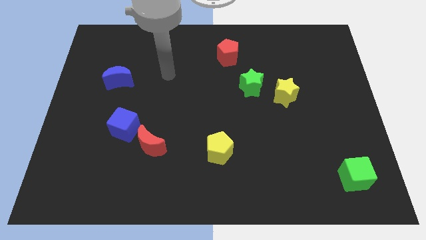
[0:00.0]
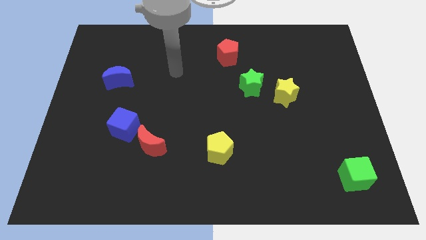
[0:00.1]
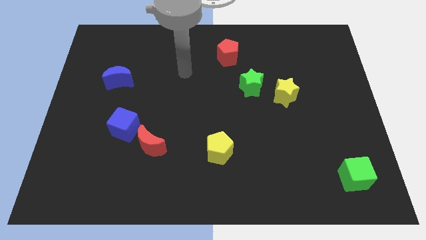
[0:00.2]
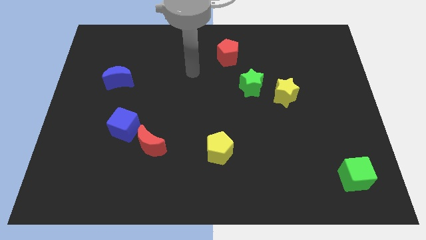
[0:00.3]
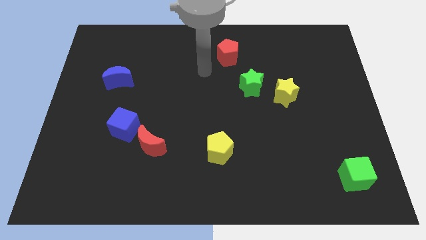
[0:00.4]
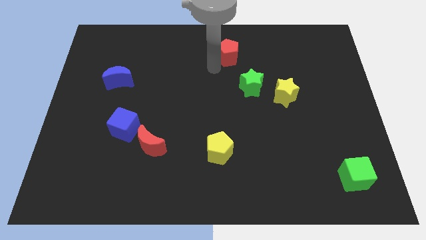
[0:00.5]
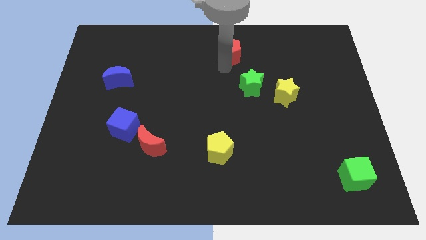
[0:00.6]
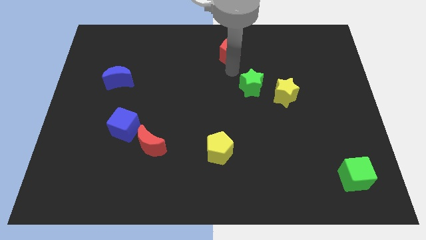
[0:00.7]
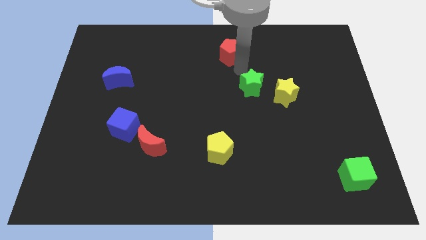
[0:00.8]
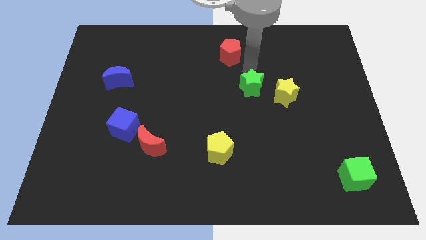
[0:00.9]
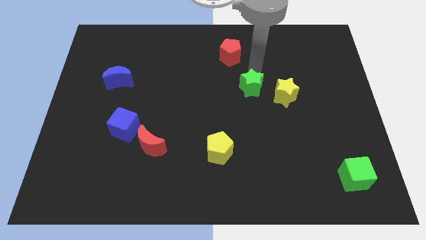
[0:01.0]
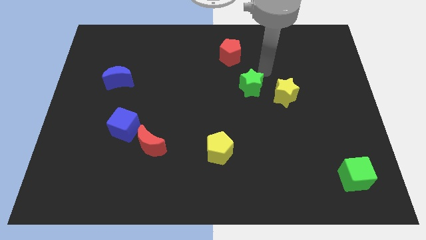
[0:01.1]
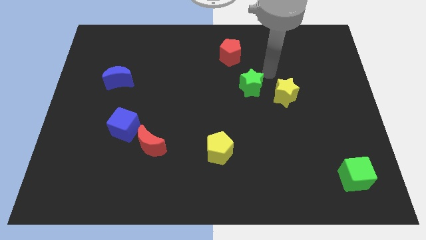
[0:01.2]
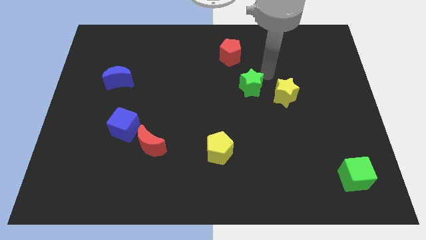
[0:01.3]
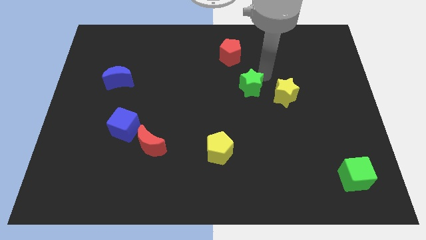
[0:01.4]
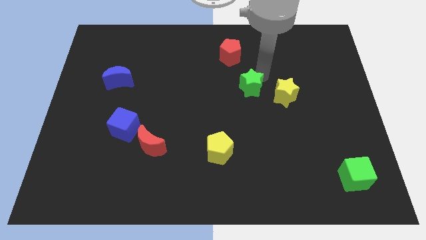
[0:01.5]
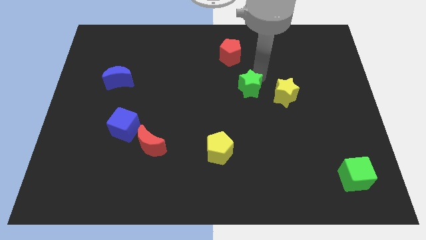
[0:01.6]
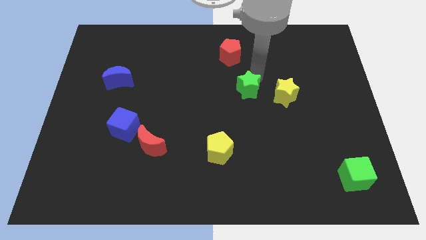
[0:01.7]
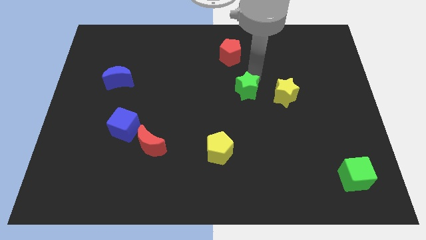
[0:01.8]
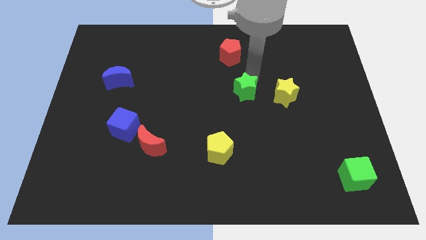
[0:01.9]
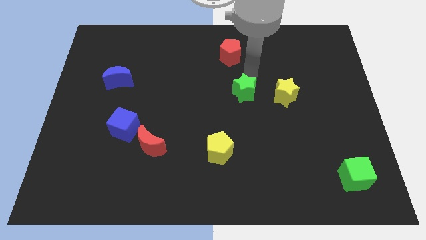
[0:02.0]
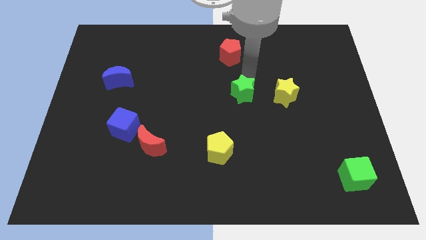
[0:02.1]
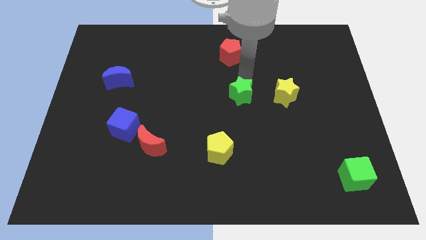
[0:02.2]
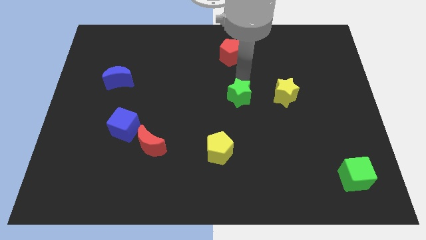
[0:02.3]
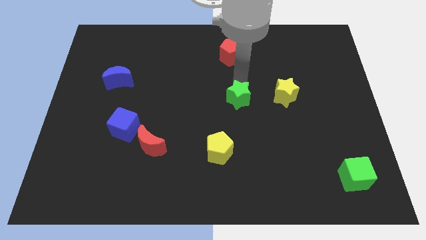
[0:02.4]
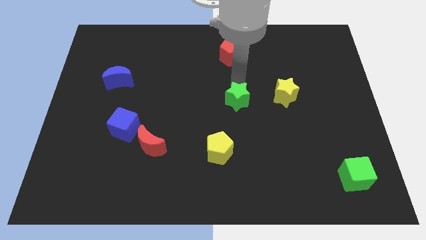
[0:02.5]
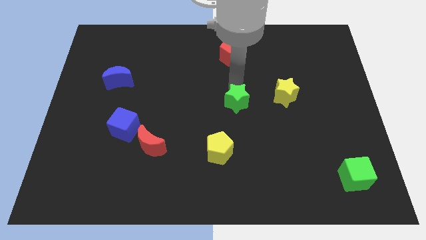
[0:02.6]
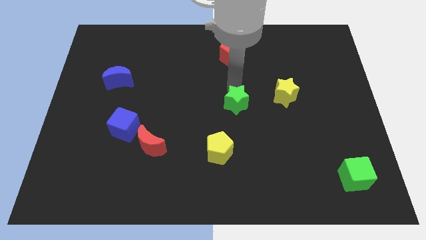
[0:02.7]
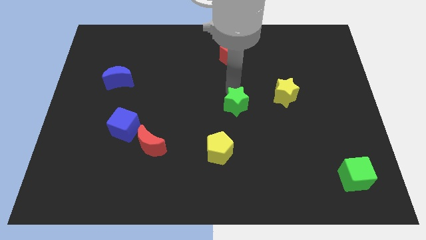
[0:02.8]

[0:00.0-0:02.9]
slide the green star diagonally downwards and left a little

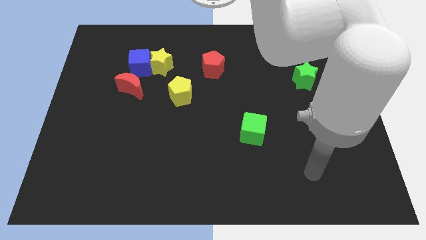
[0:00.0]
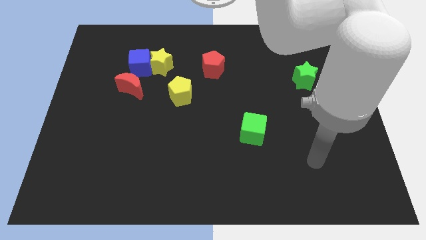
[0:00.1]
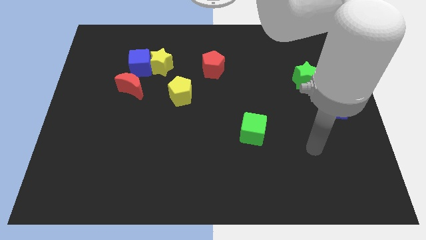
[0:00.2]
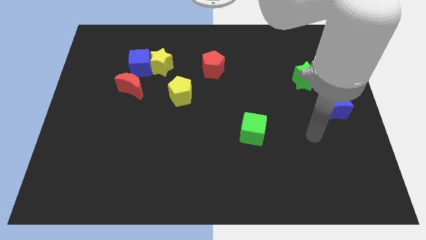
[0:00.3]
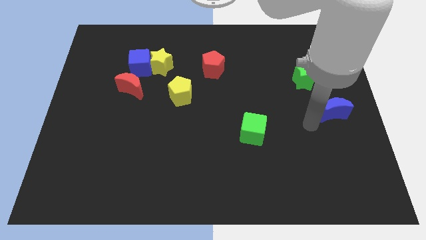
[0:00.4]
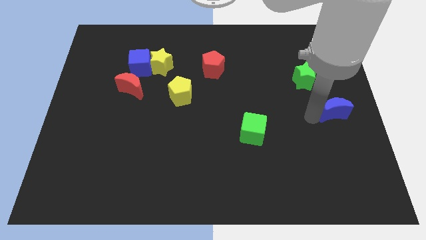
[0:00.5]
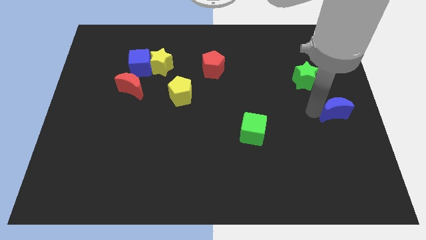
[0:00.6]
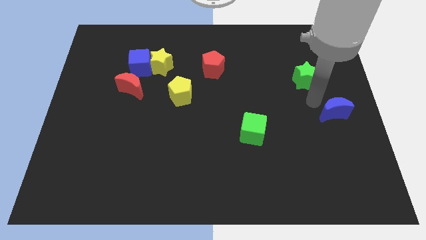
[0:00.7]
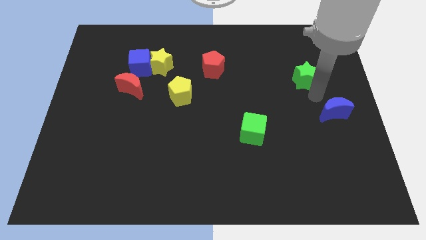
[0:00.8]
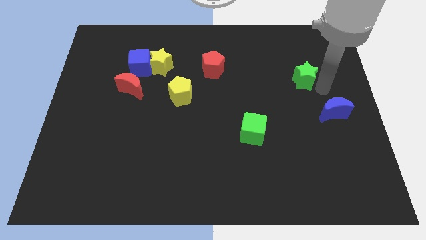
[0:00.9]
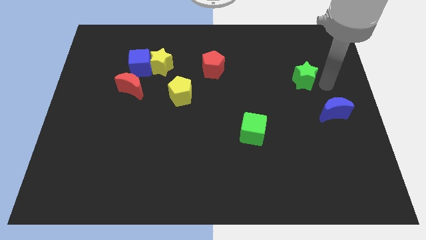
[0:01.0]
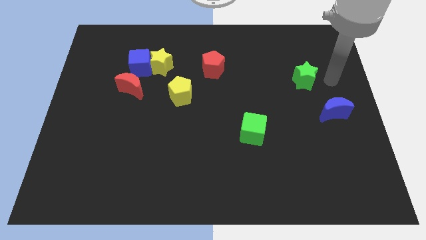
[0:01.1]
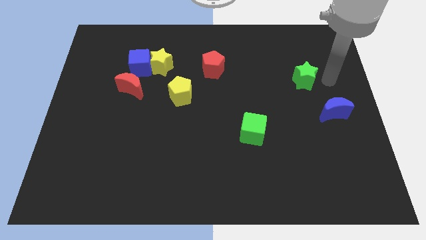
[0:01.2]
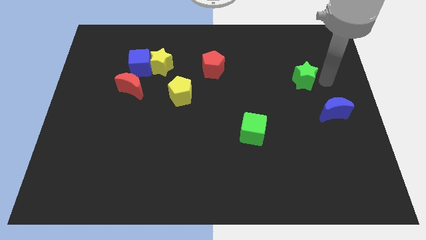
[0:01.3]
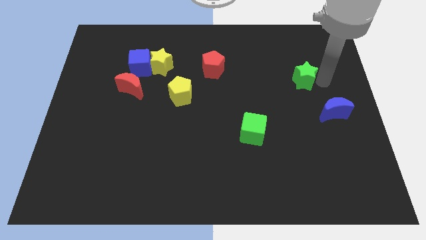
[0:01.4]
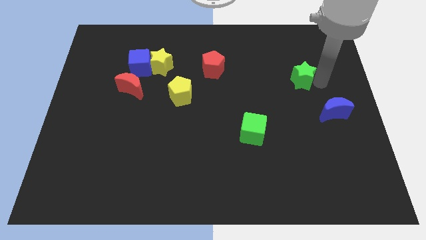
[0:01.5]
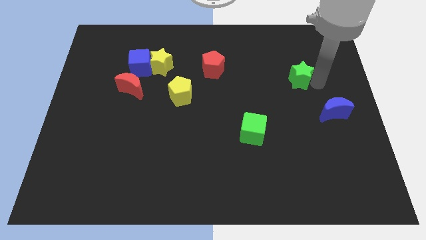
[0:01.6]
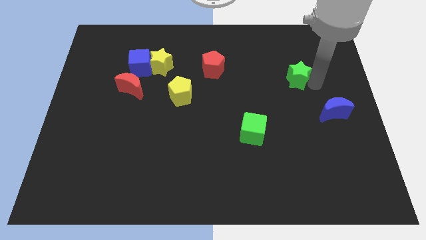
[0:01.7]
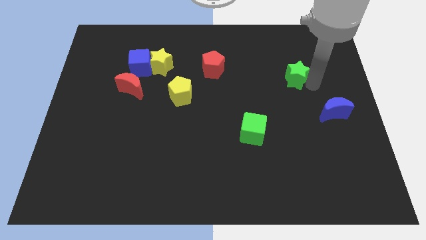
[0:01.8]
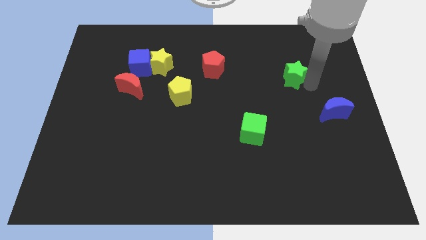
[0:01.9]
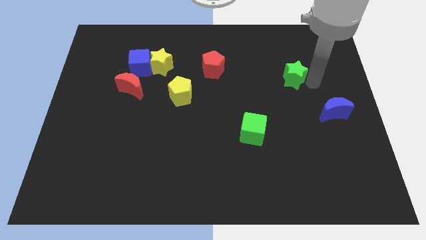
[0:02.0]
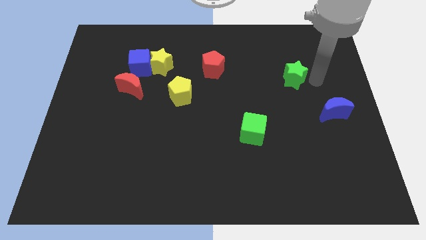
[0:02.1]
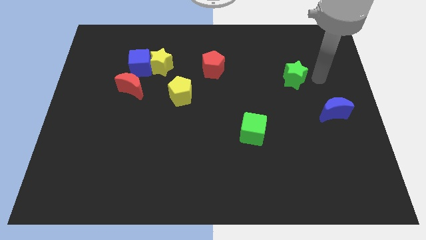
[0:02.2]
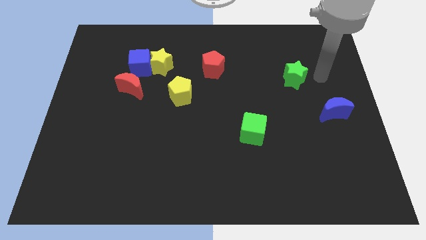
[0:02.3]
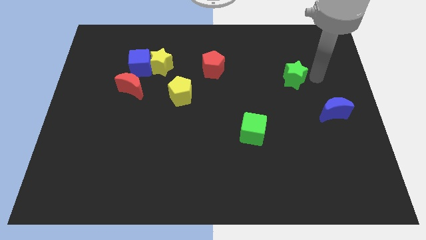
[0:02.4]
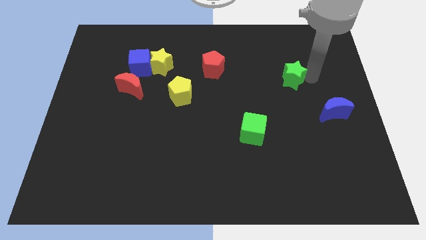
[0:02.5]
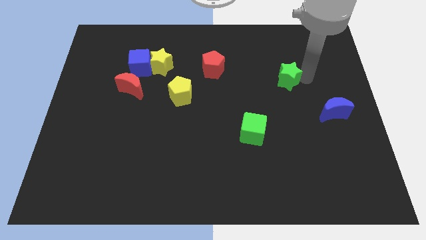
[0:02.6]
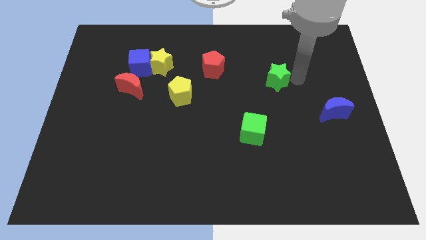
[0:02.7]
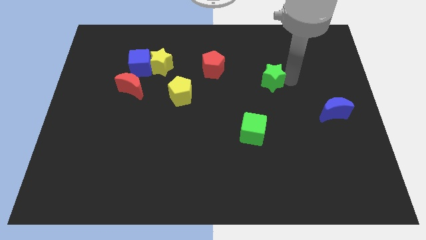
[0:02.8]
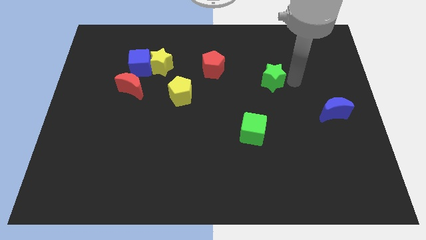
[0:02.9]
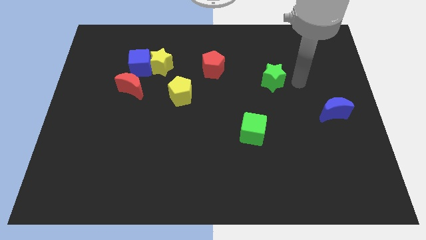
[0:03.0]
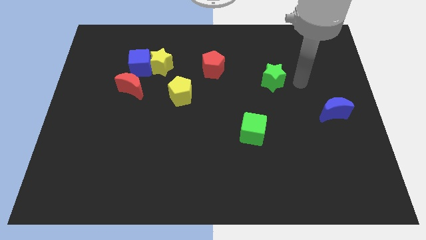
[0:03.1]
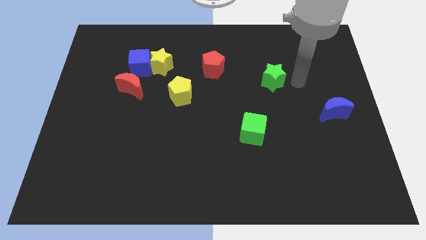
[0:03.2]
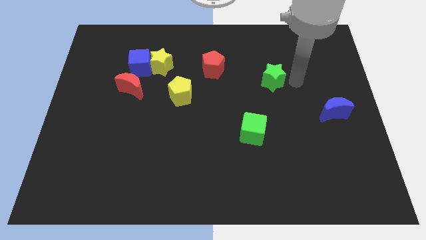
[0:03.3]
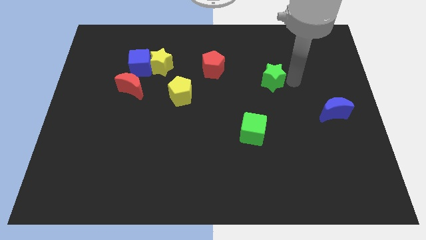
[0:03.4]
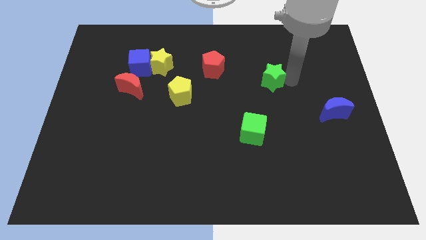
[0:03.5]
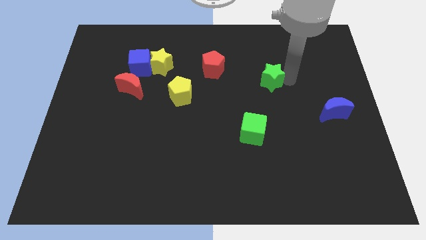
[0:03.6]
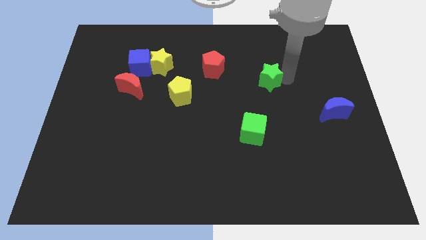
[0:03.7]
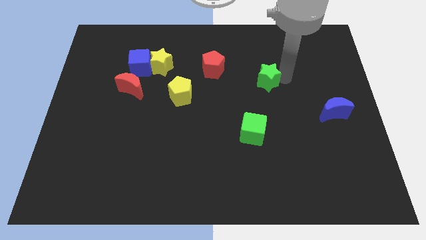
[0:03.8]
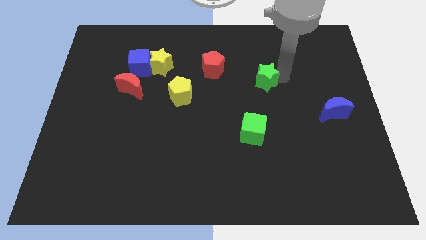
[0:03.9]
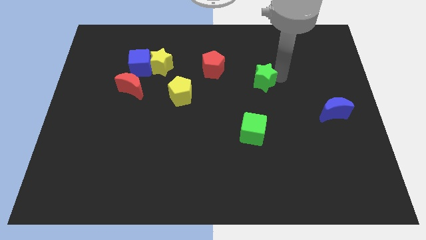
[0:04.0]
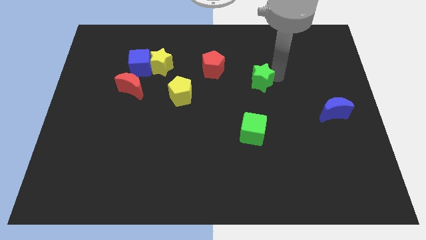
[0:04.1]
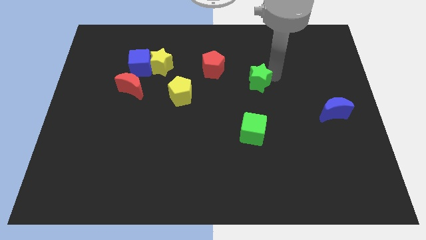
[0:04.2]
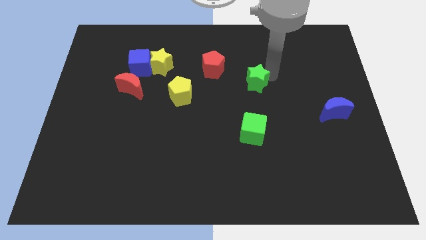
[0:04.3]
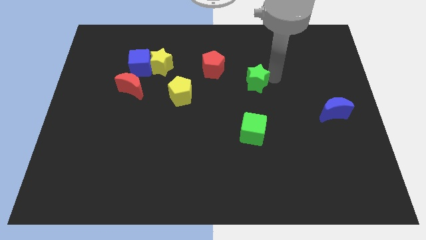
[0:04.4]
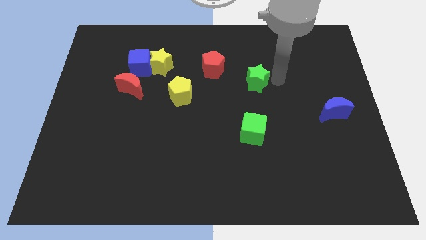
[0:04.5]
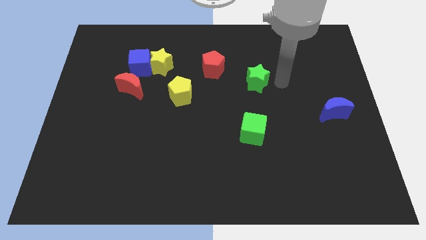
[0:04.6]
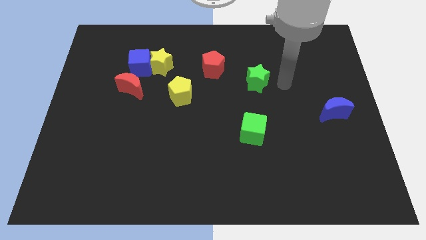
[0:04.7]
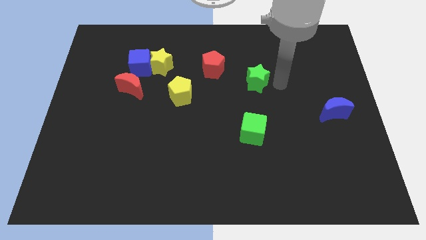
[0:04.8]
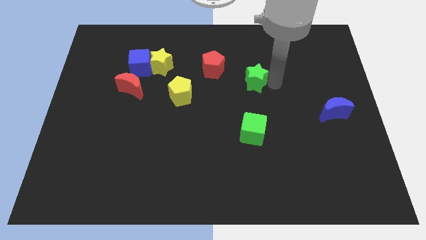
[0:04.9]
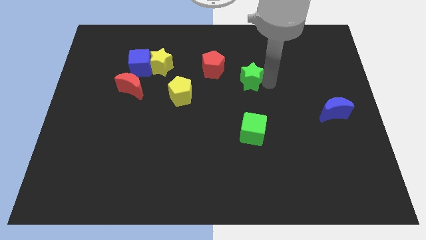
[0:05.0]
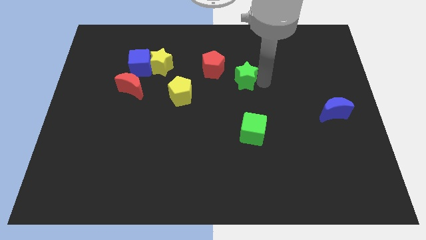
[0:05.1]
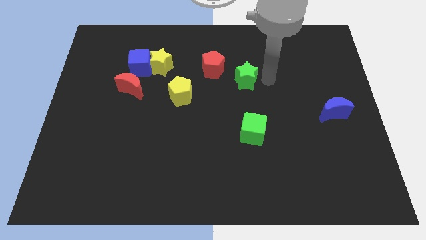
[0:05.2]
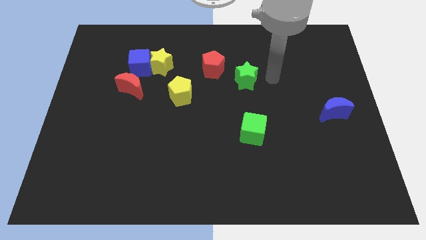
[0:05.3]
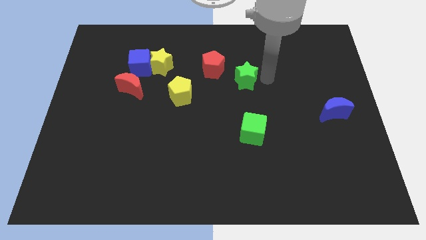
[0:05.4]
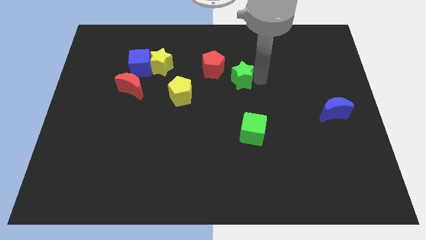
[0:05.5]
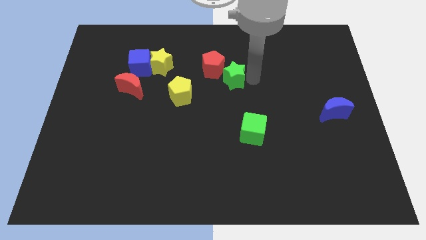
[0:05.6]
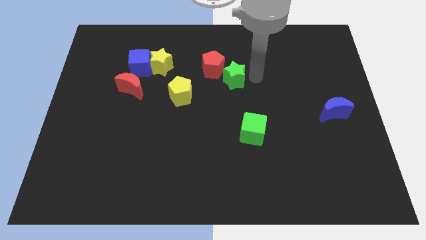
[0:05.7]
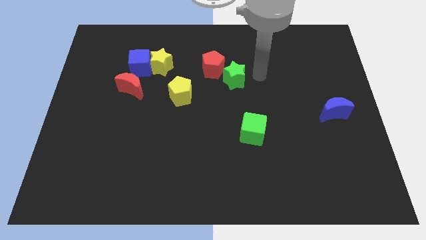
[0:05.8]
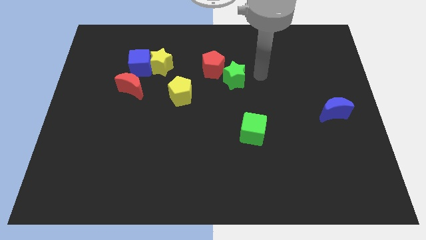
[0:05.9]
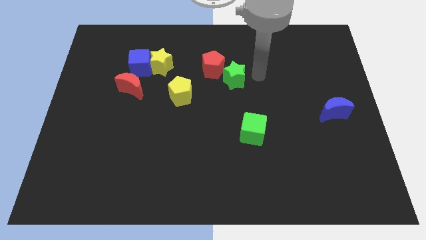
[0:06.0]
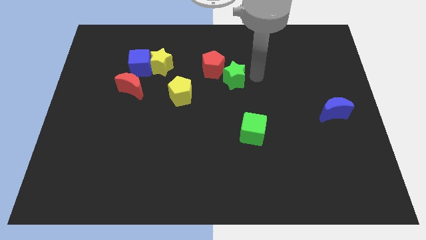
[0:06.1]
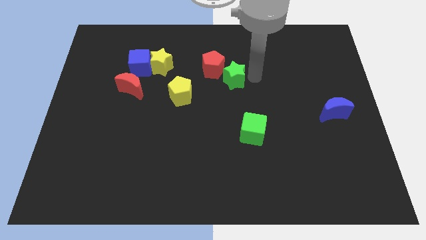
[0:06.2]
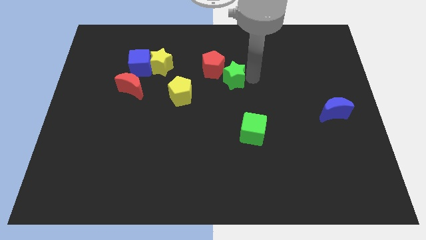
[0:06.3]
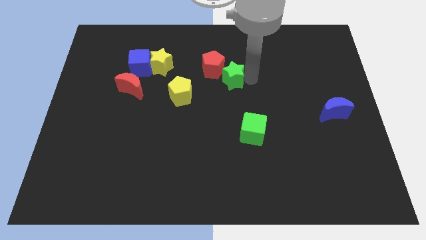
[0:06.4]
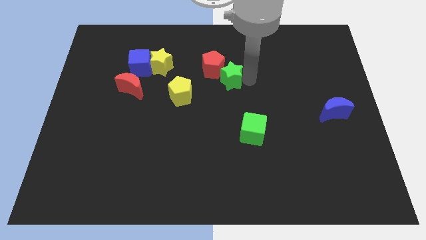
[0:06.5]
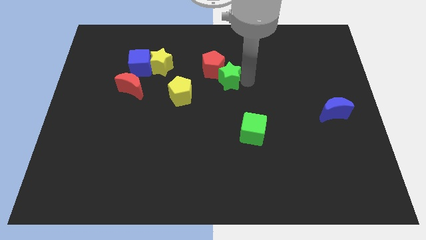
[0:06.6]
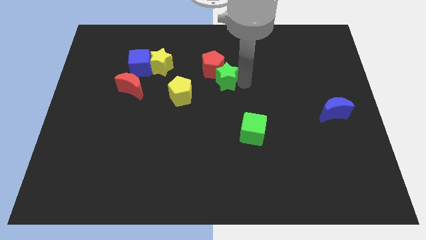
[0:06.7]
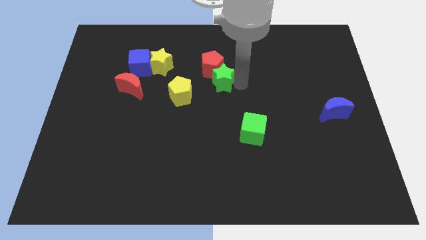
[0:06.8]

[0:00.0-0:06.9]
push the green star to the left
